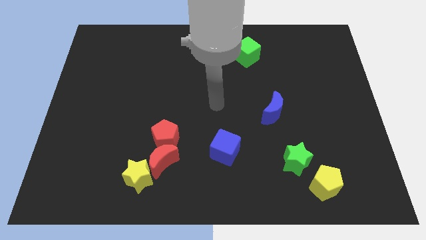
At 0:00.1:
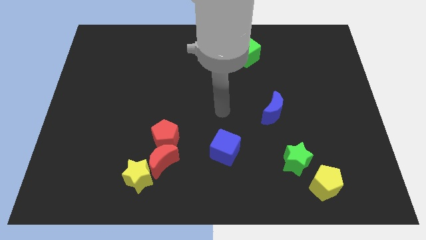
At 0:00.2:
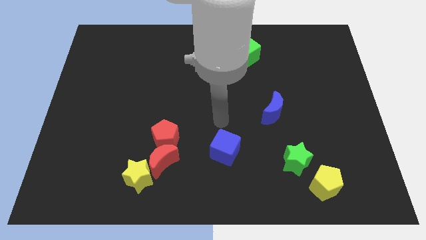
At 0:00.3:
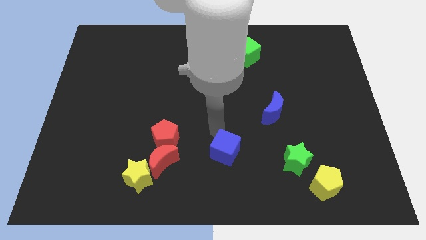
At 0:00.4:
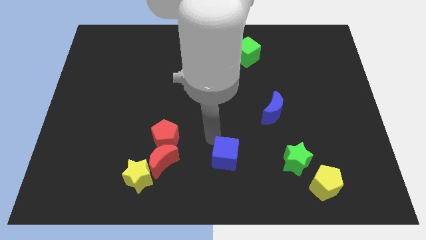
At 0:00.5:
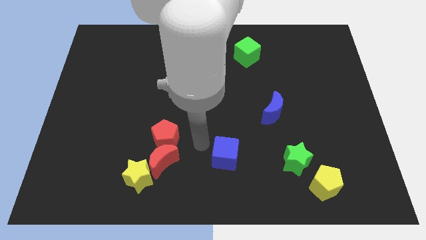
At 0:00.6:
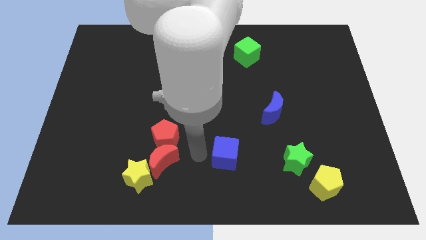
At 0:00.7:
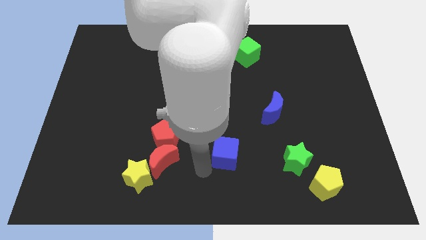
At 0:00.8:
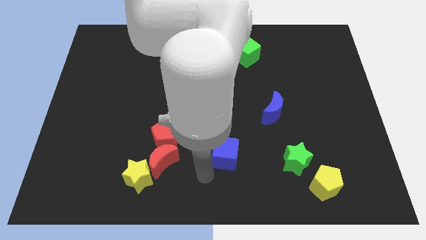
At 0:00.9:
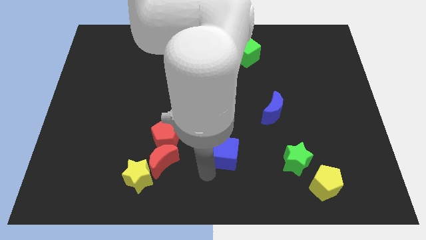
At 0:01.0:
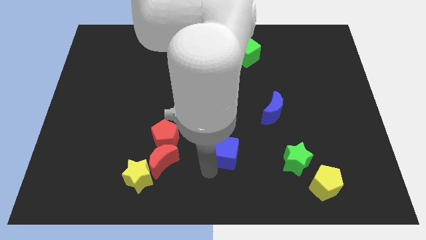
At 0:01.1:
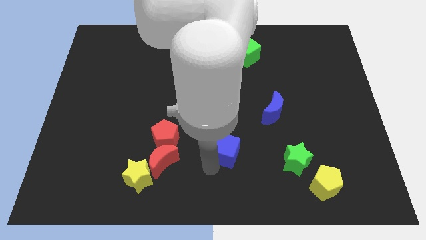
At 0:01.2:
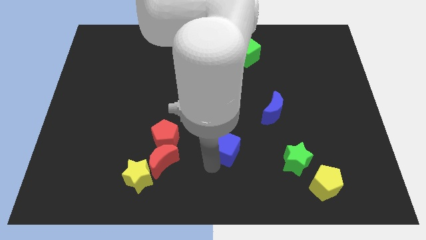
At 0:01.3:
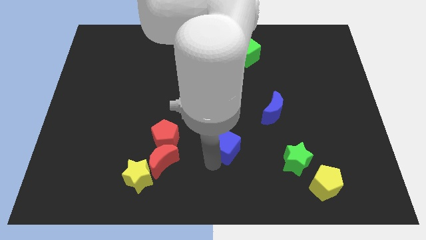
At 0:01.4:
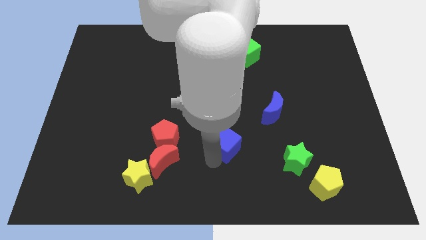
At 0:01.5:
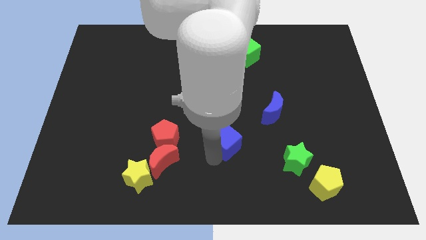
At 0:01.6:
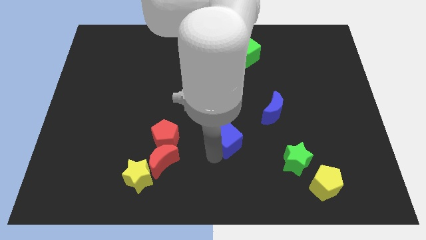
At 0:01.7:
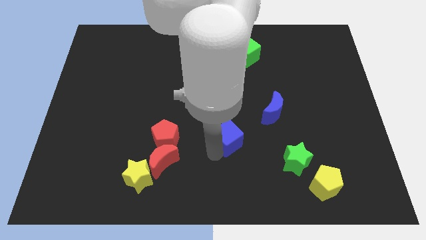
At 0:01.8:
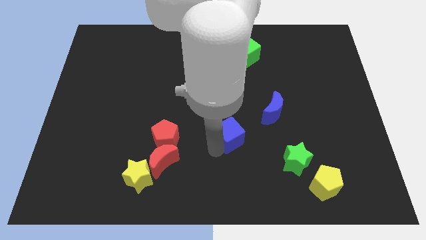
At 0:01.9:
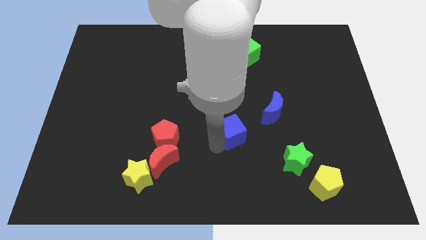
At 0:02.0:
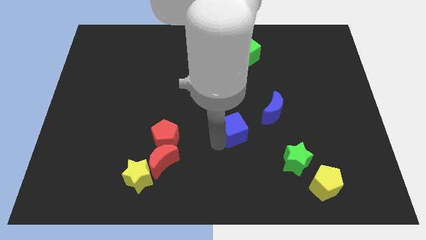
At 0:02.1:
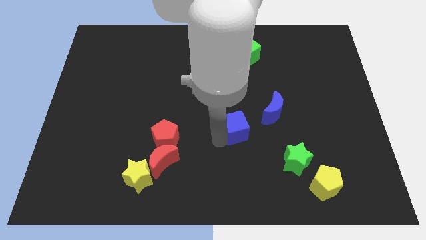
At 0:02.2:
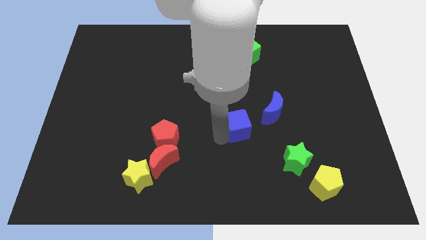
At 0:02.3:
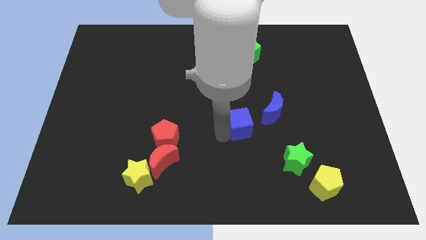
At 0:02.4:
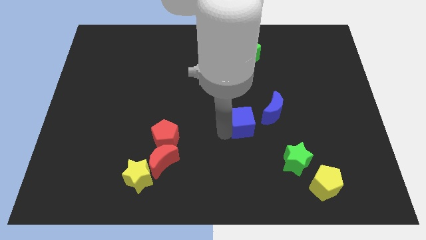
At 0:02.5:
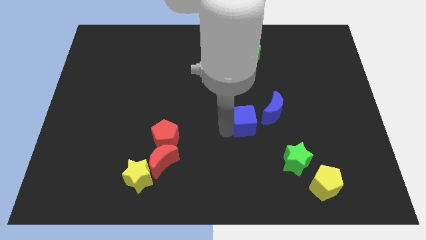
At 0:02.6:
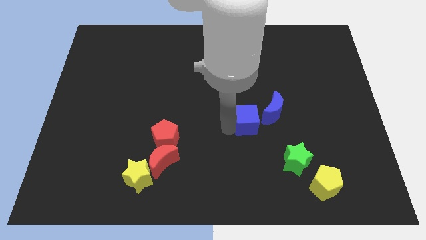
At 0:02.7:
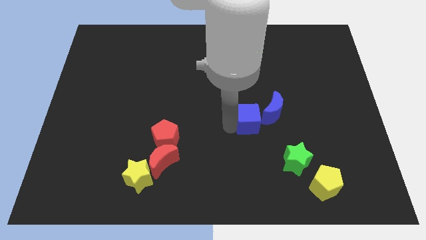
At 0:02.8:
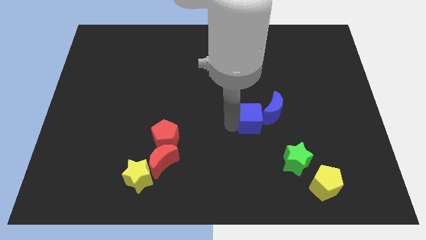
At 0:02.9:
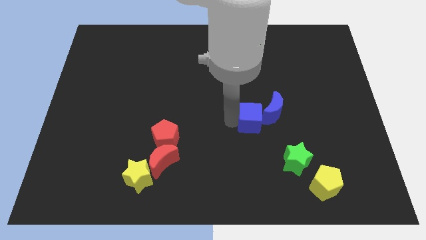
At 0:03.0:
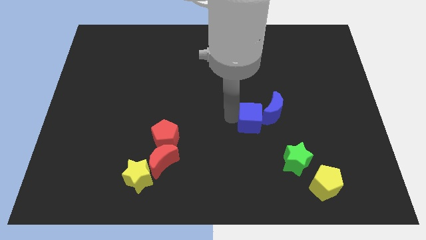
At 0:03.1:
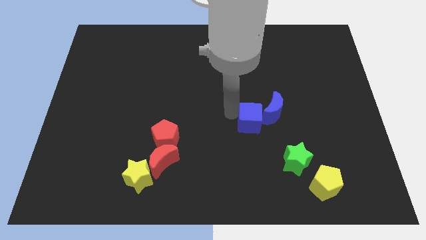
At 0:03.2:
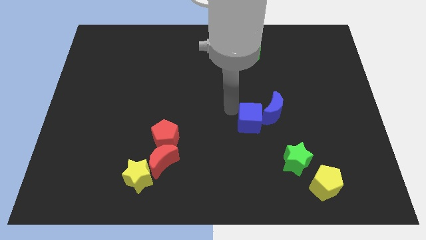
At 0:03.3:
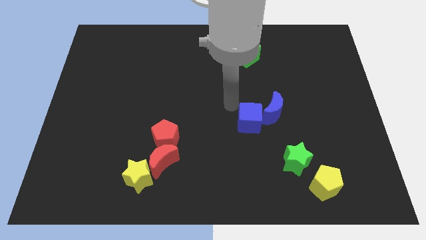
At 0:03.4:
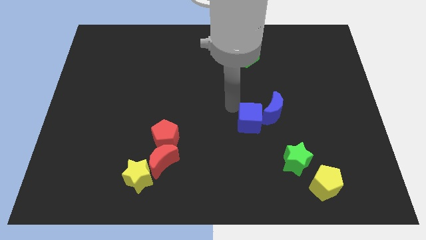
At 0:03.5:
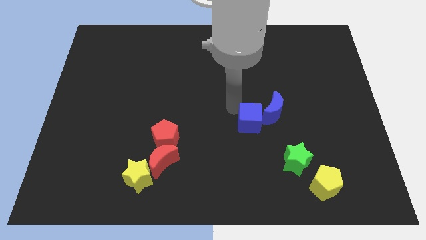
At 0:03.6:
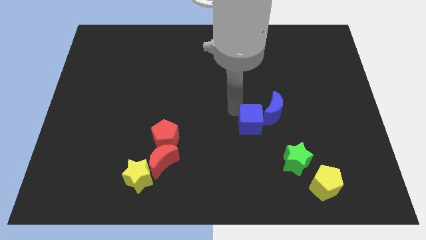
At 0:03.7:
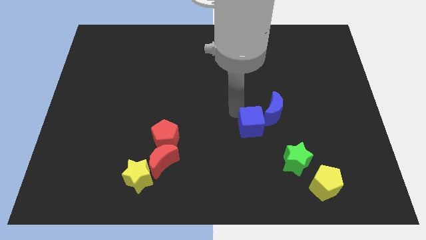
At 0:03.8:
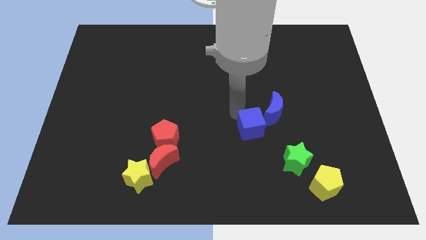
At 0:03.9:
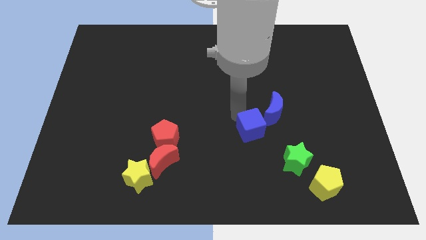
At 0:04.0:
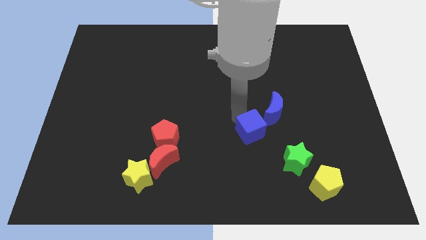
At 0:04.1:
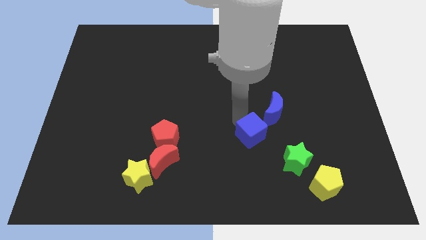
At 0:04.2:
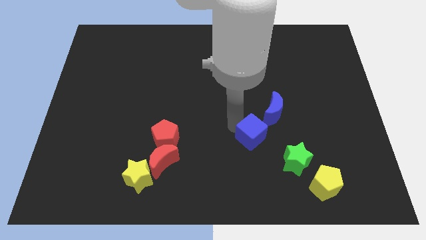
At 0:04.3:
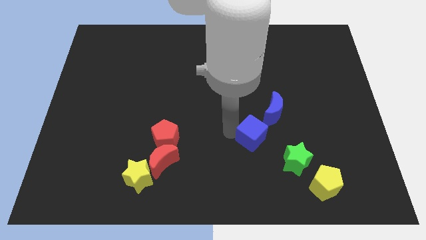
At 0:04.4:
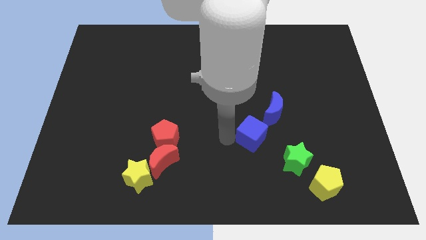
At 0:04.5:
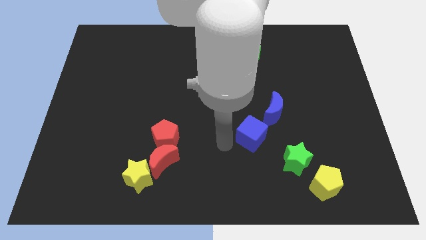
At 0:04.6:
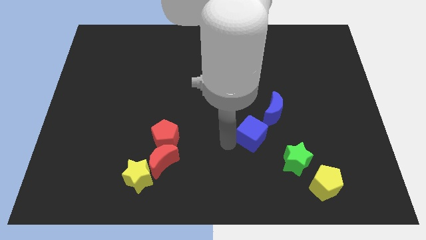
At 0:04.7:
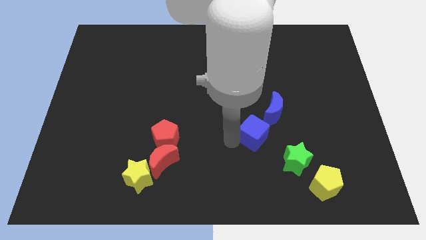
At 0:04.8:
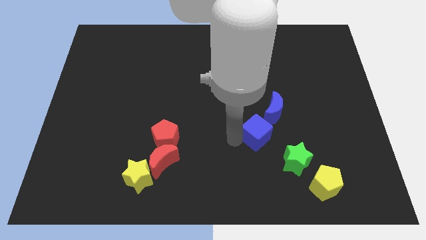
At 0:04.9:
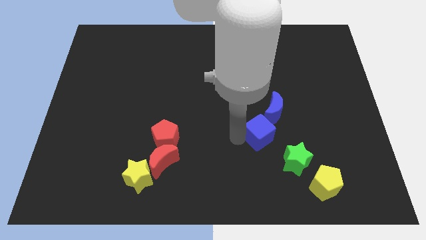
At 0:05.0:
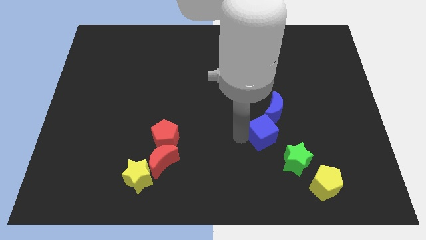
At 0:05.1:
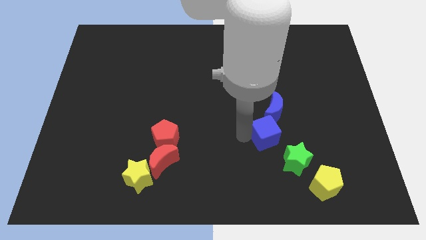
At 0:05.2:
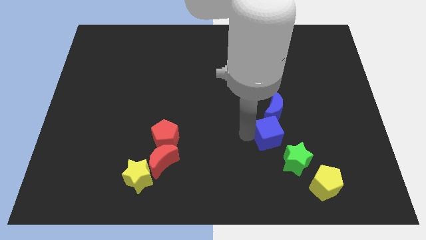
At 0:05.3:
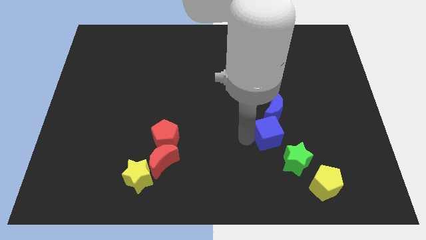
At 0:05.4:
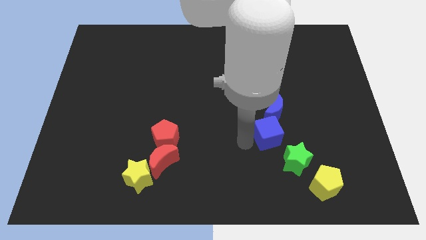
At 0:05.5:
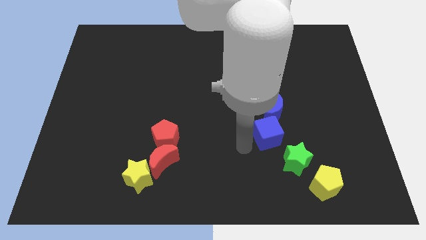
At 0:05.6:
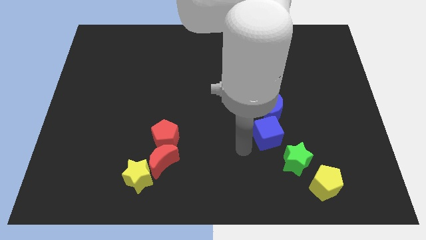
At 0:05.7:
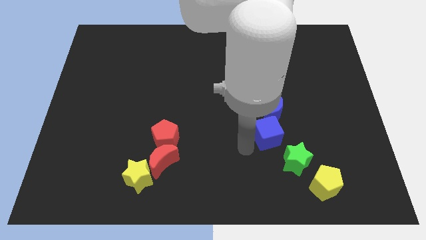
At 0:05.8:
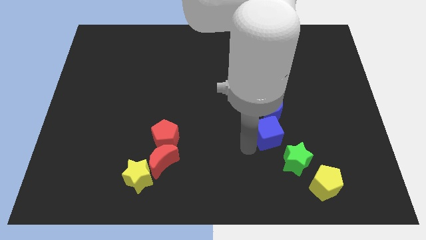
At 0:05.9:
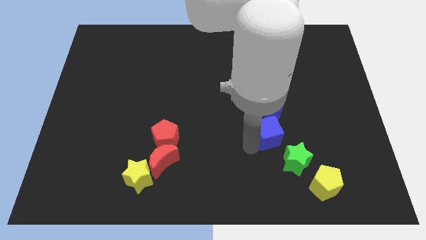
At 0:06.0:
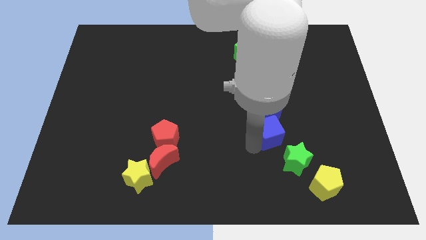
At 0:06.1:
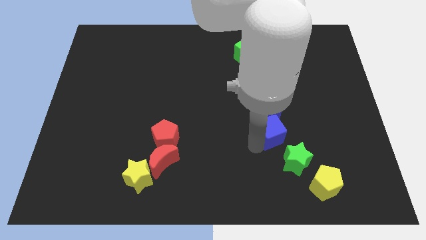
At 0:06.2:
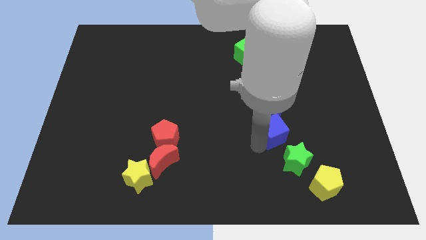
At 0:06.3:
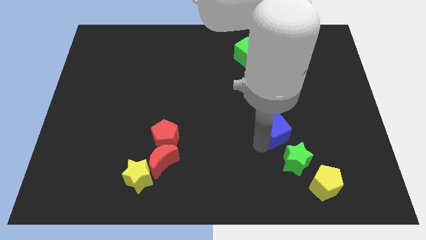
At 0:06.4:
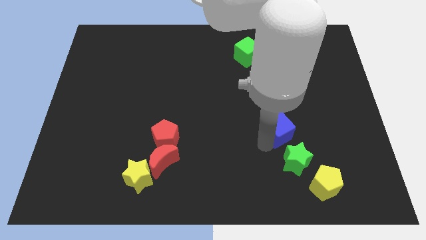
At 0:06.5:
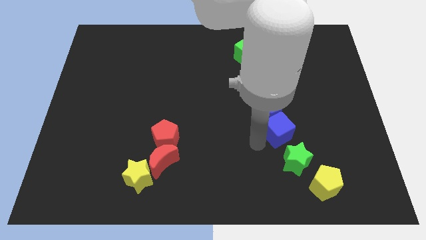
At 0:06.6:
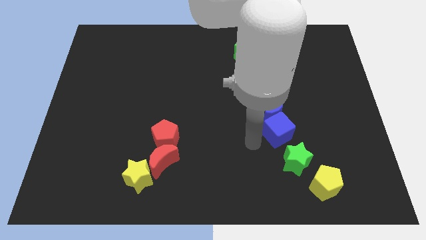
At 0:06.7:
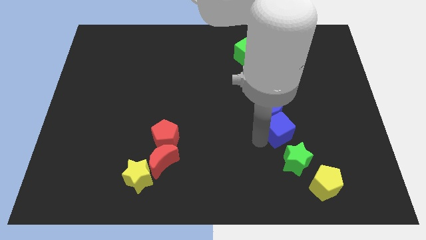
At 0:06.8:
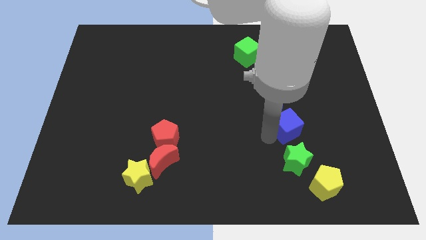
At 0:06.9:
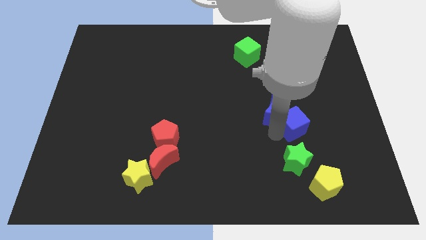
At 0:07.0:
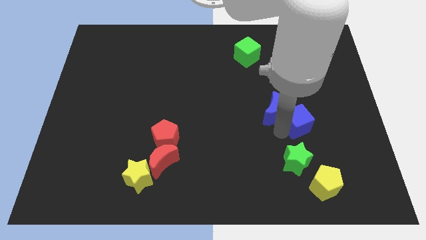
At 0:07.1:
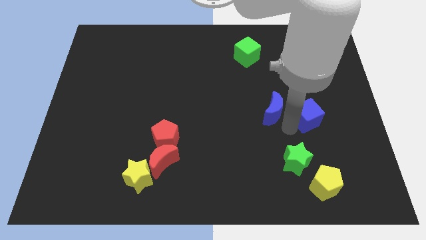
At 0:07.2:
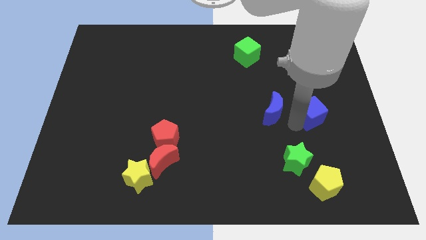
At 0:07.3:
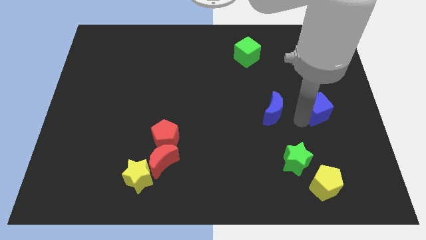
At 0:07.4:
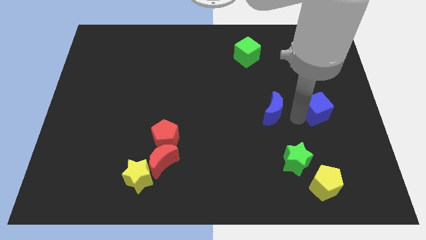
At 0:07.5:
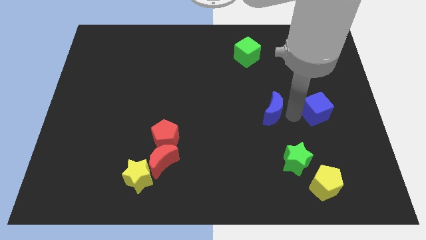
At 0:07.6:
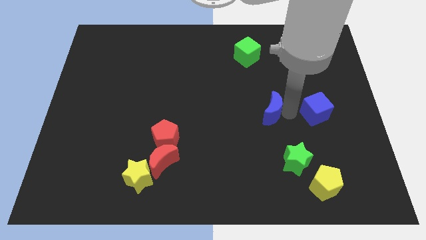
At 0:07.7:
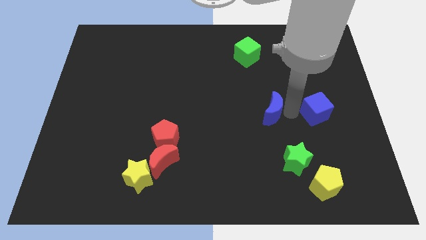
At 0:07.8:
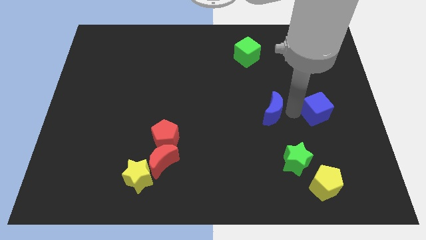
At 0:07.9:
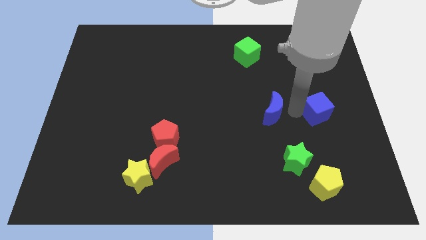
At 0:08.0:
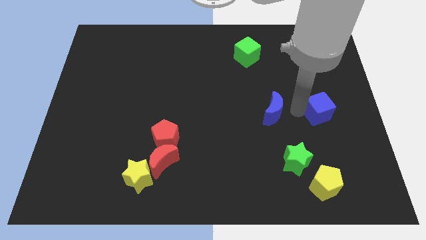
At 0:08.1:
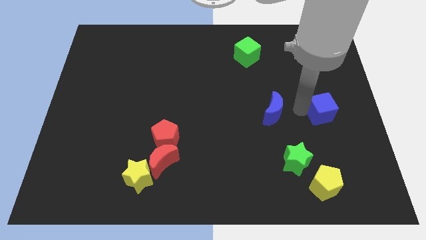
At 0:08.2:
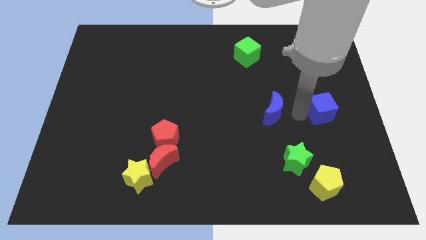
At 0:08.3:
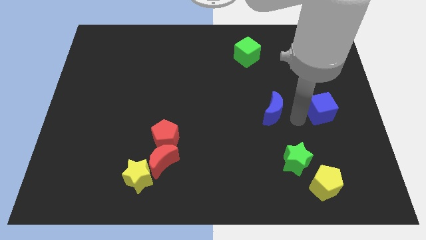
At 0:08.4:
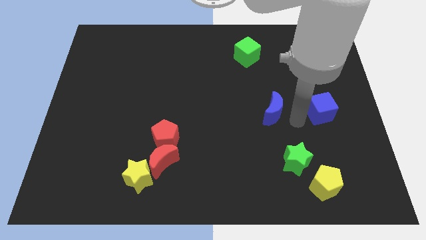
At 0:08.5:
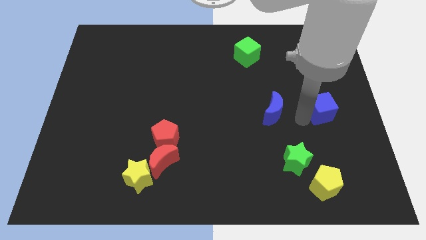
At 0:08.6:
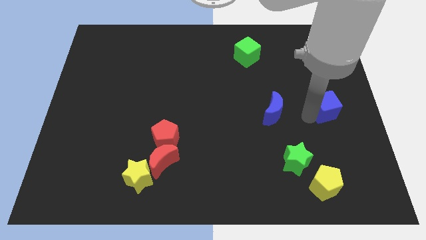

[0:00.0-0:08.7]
move the blue cube to the right side
